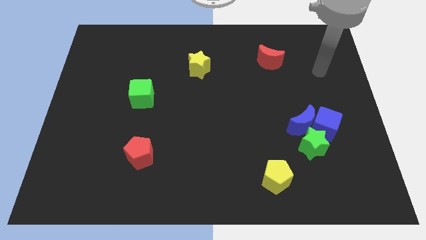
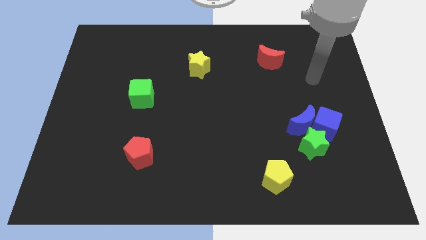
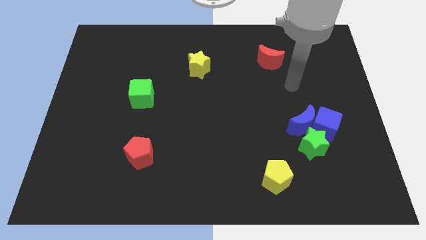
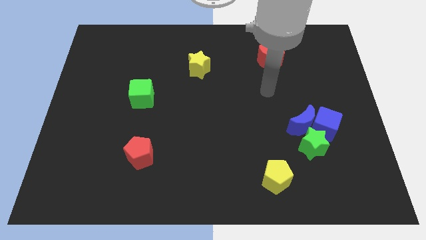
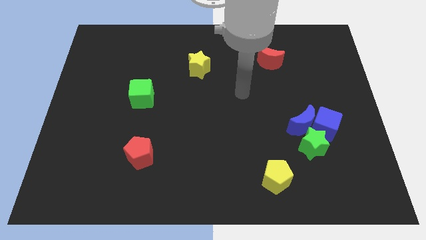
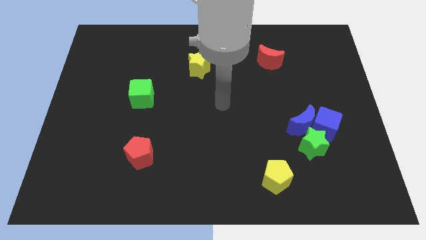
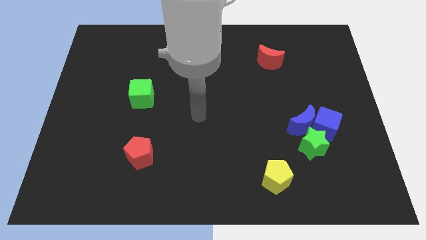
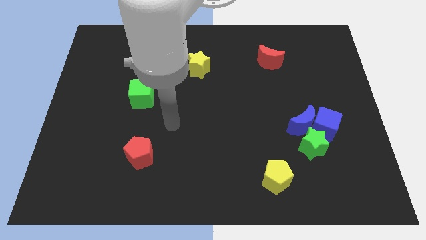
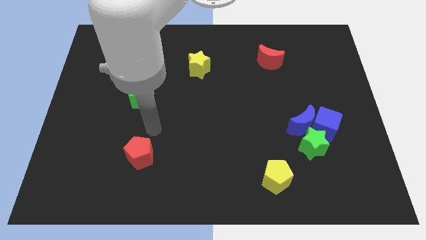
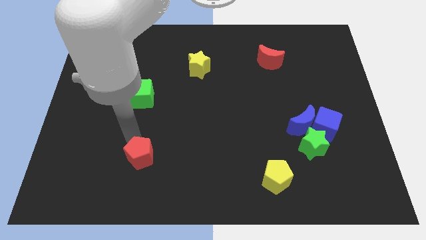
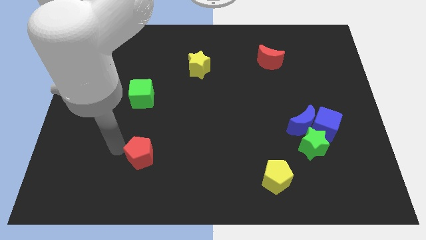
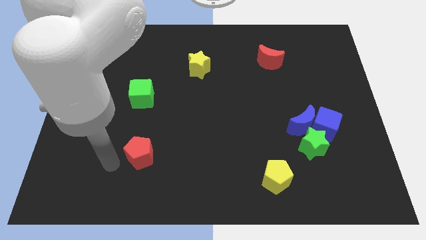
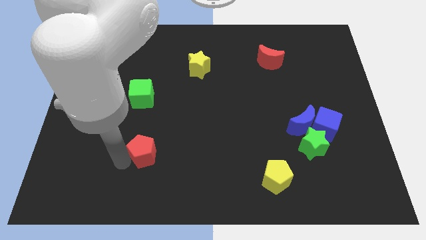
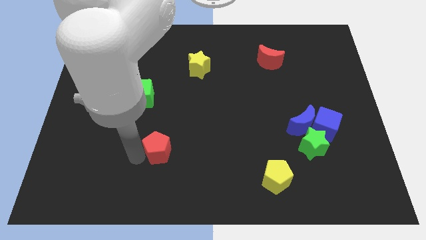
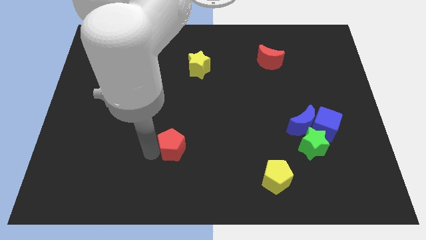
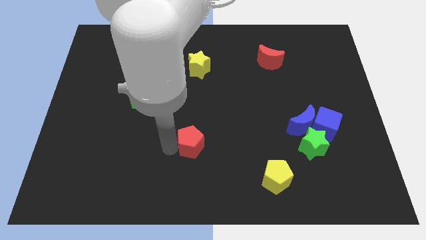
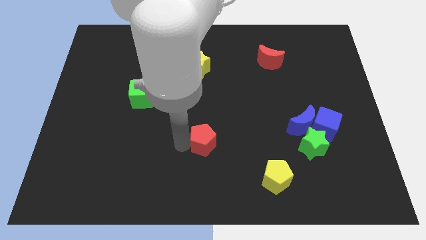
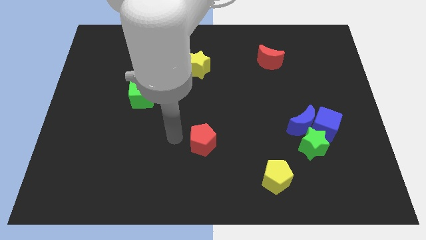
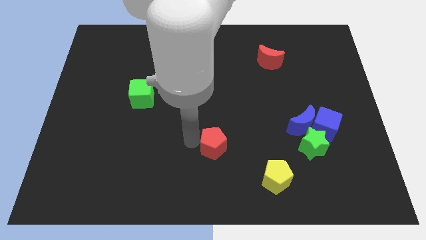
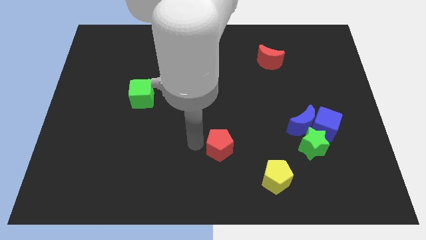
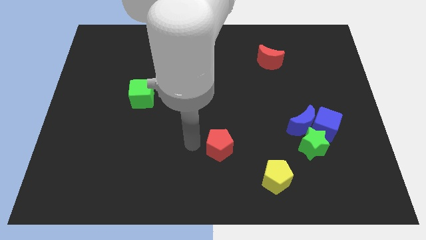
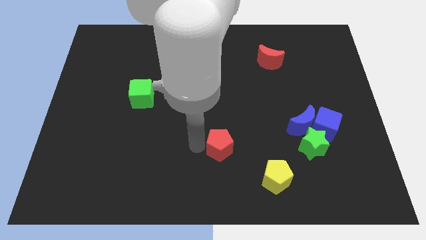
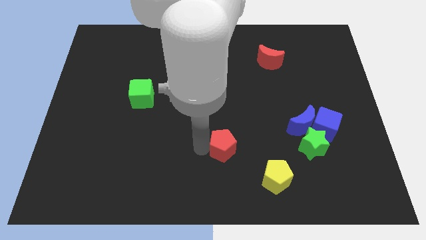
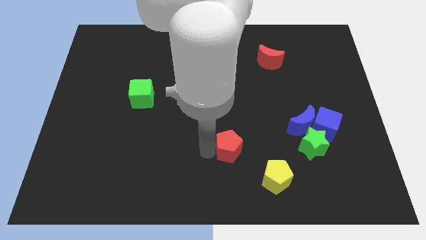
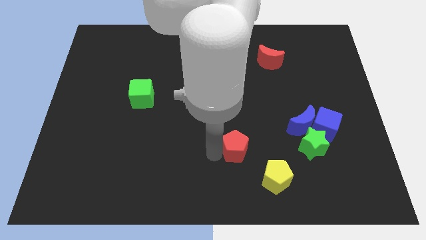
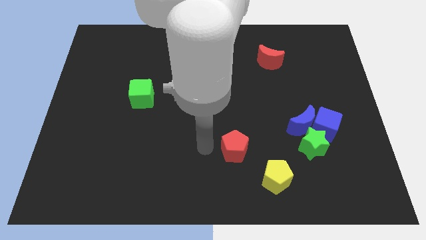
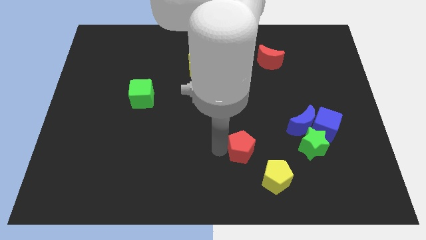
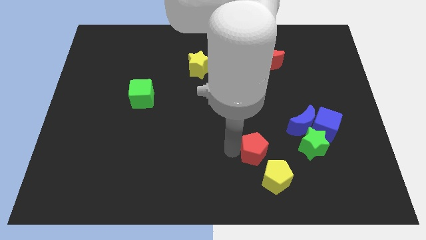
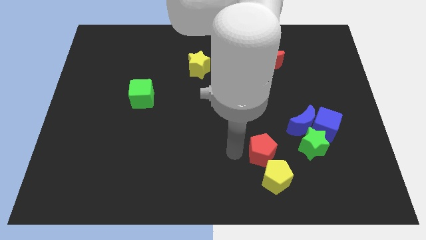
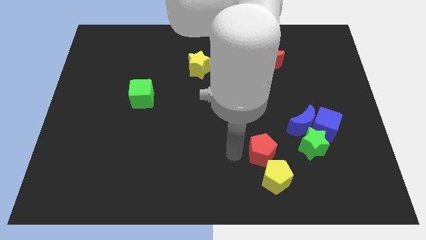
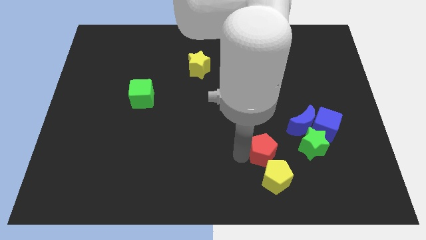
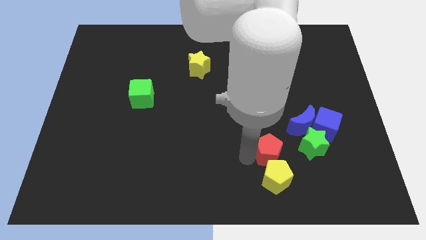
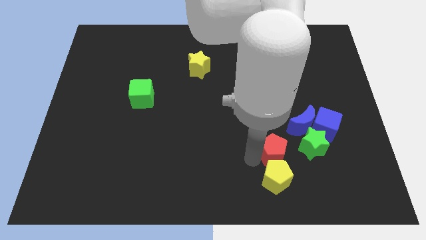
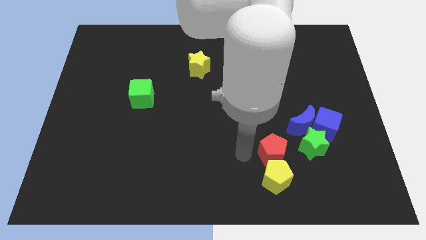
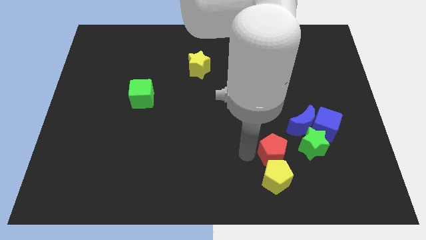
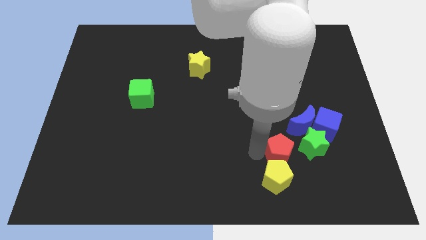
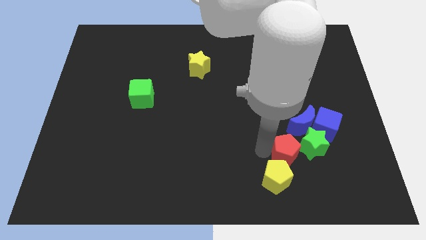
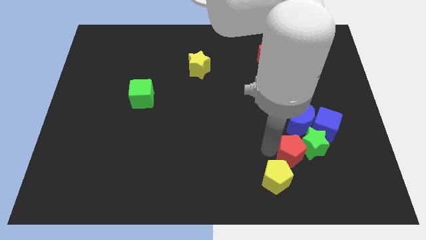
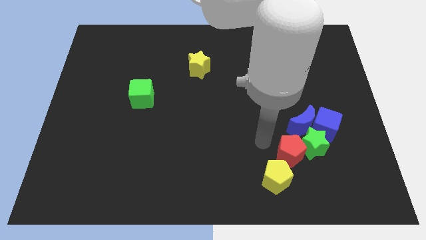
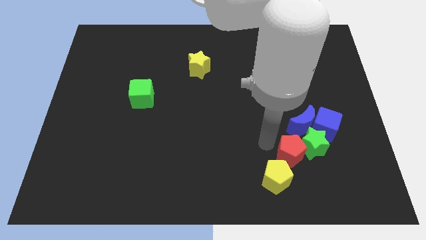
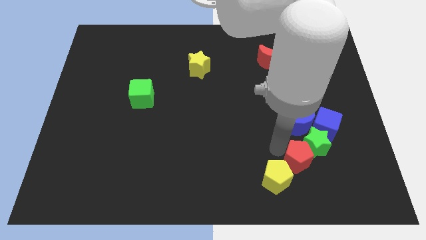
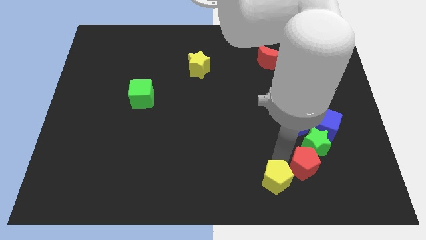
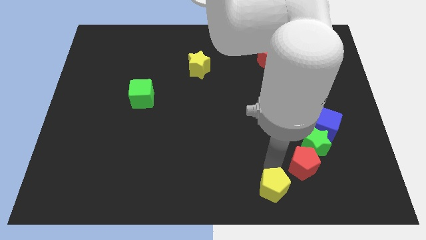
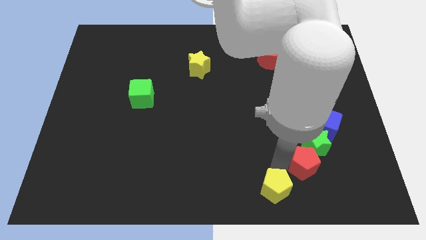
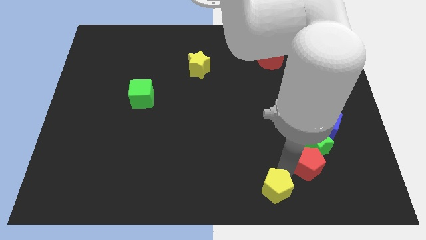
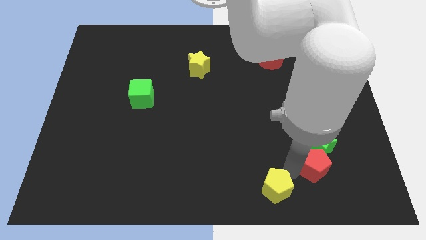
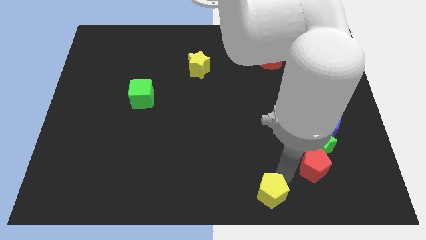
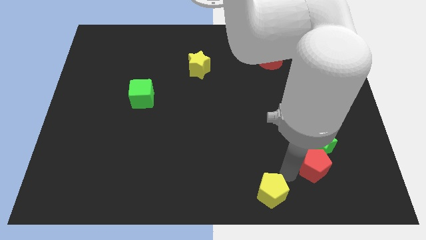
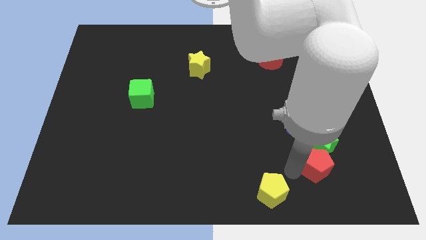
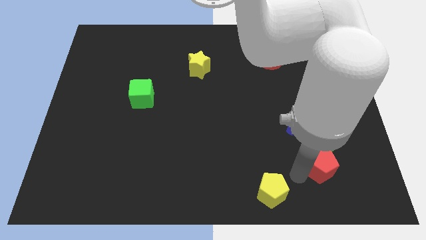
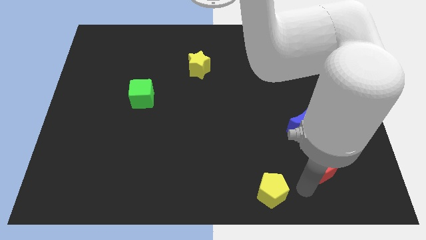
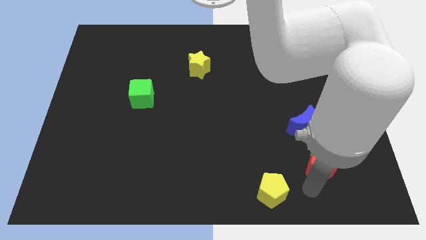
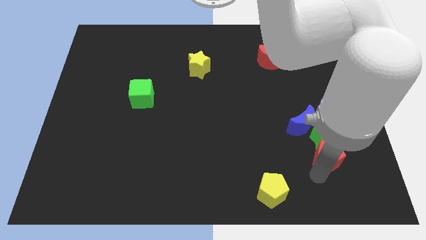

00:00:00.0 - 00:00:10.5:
move the red pentagon to the bottom right side of the blue moon

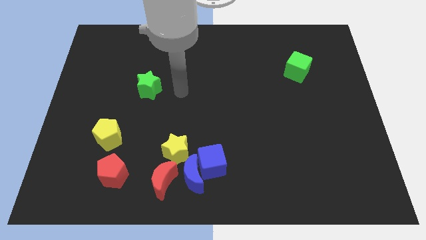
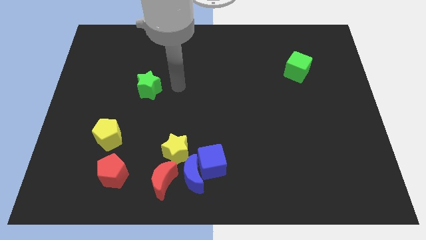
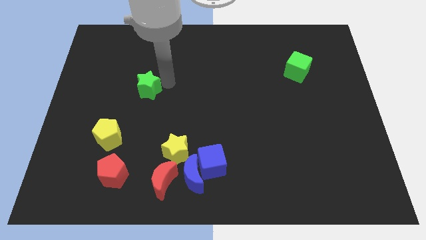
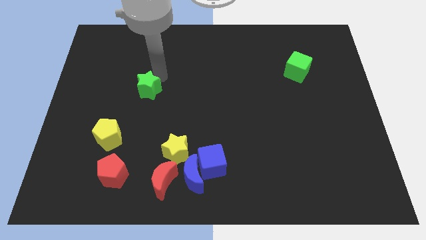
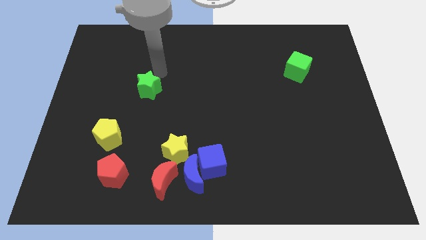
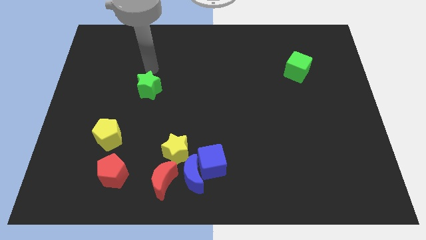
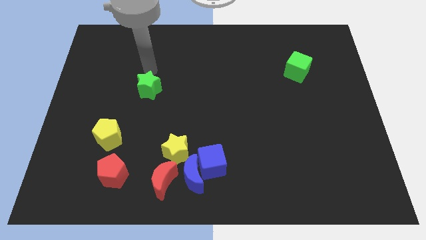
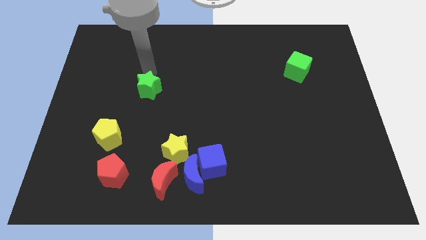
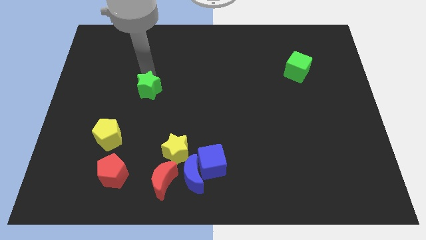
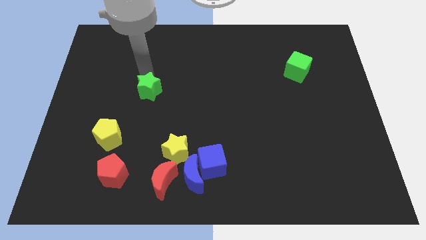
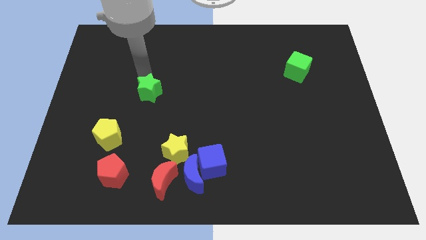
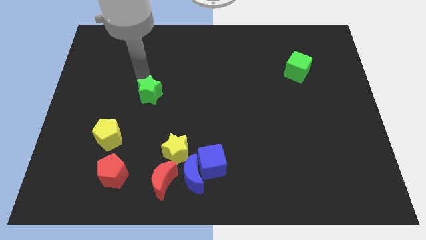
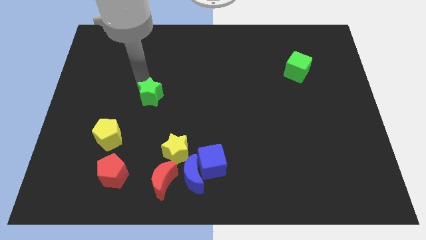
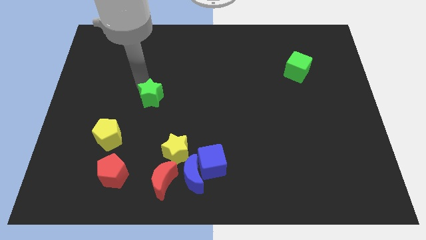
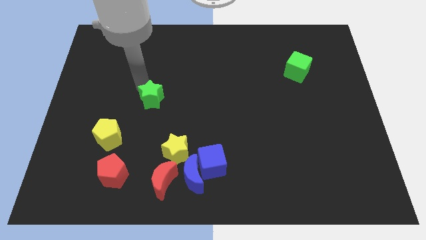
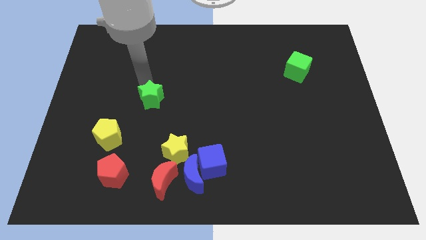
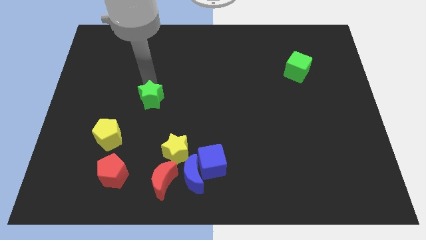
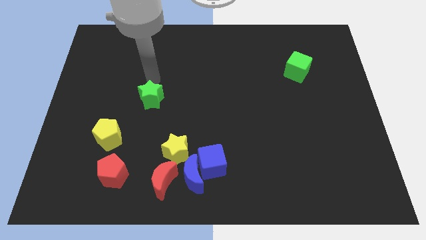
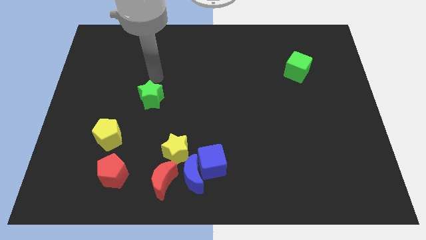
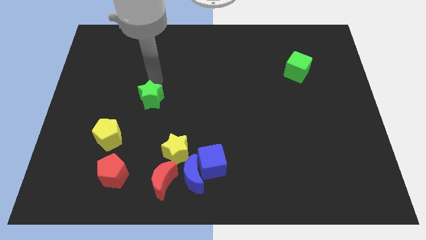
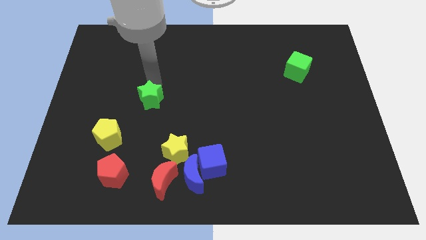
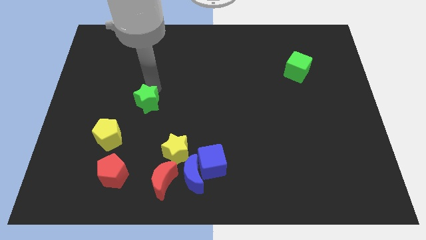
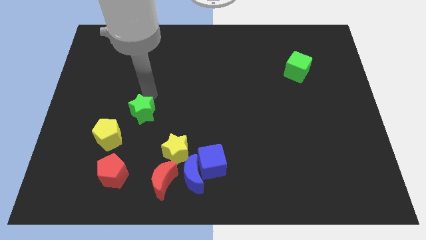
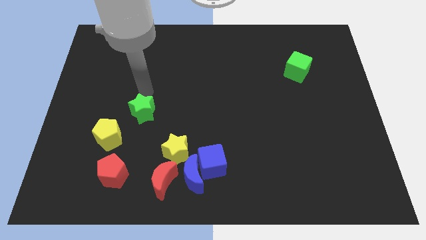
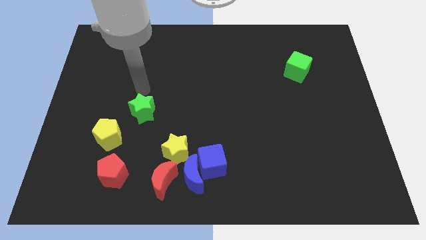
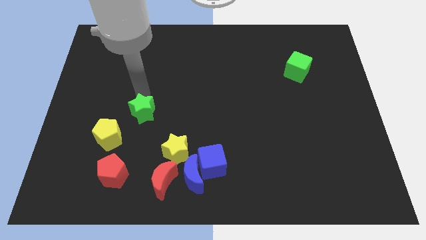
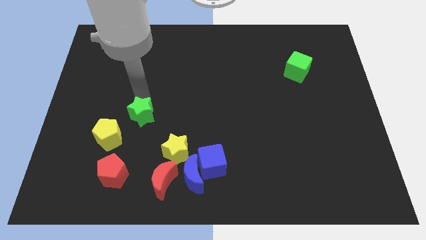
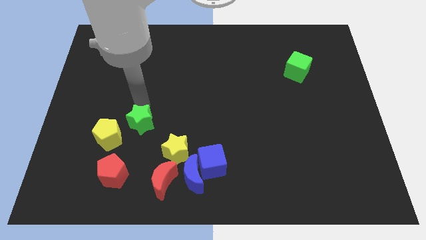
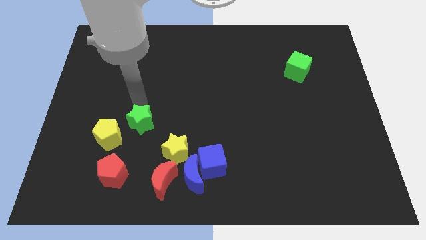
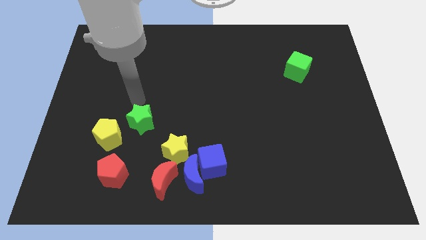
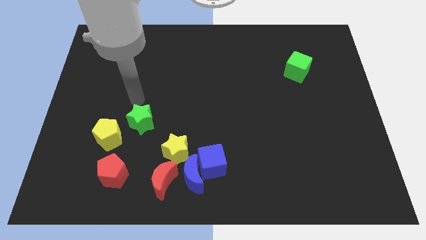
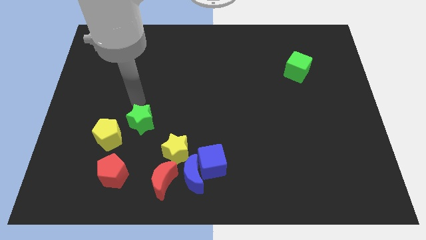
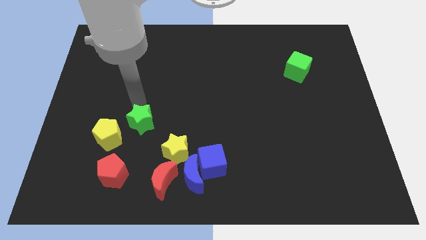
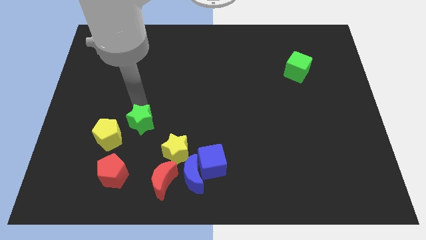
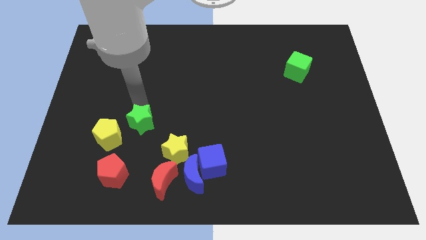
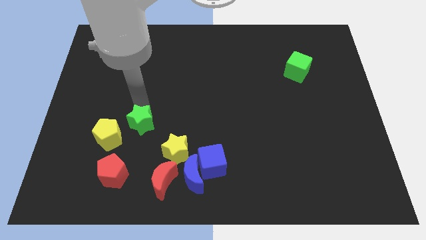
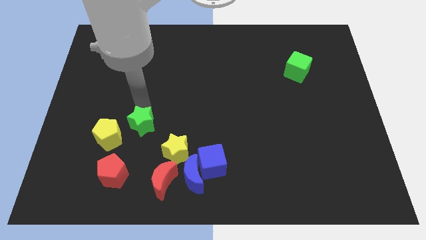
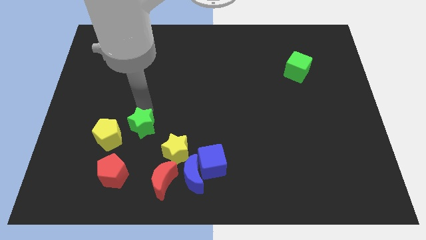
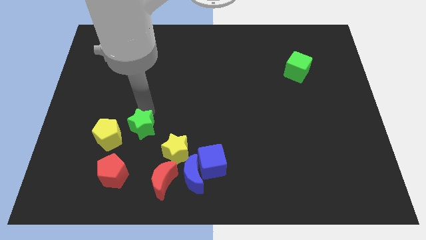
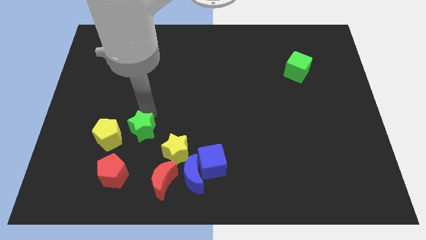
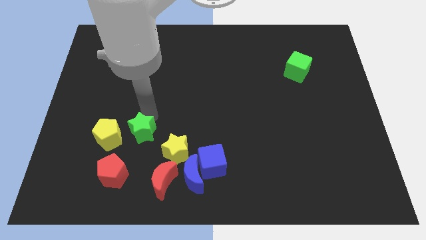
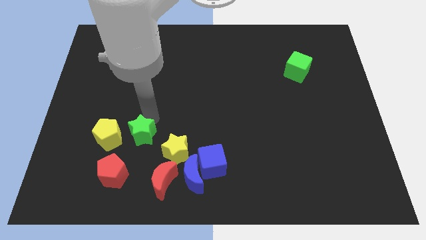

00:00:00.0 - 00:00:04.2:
push the green star to the top right of the red pentagon
